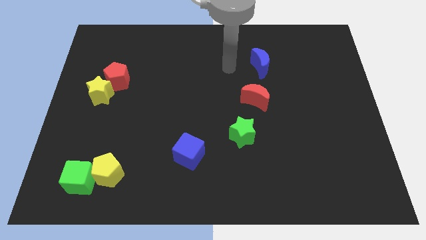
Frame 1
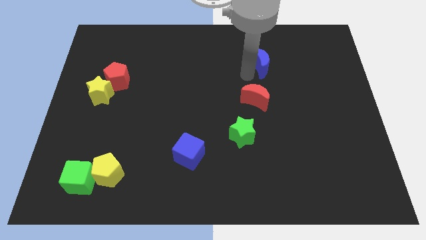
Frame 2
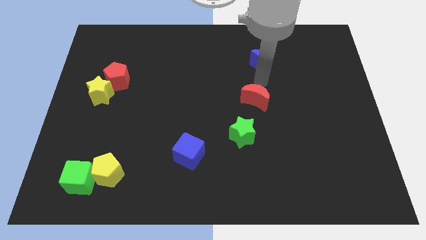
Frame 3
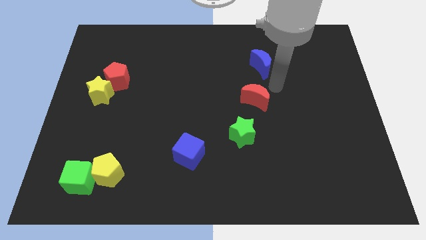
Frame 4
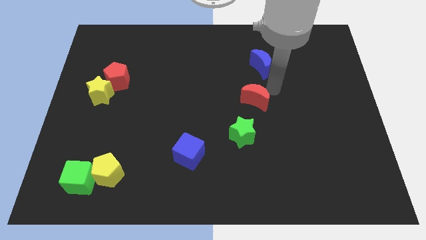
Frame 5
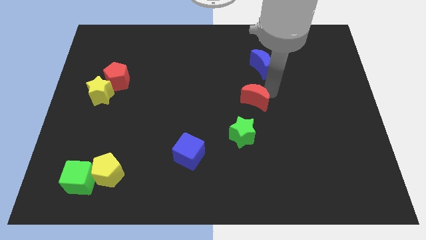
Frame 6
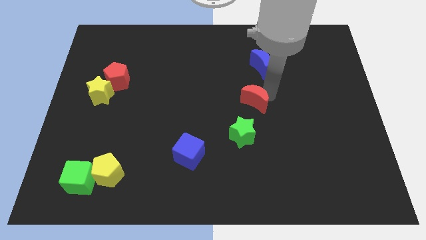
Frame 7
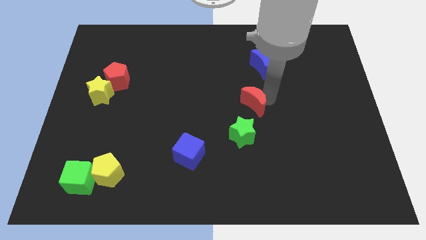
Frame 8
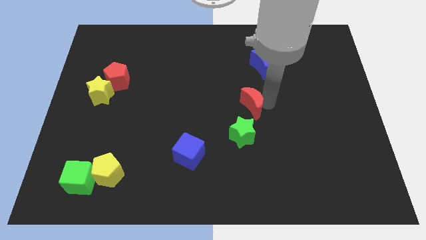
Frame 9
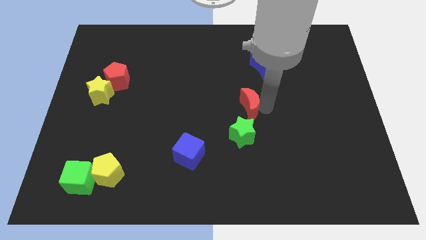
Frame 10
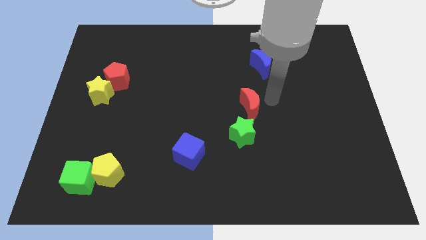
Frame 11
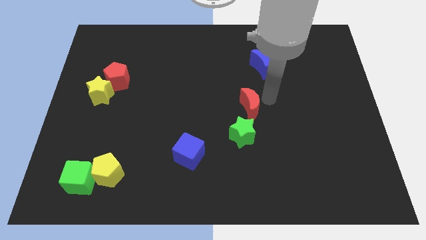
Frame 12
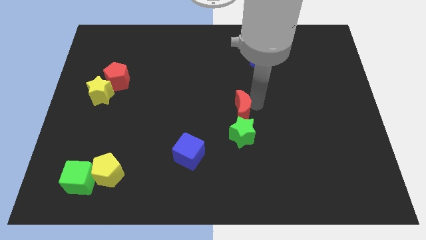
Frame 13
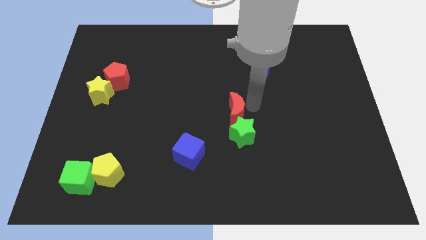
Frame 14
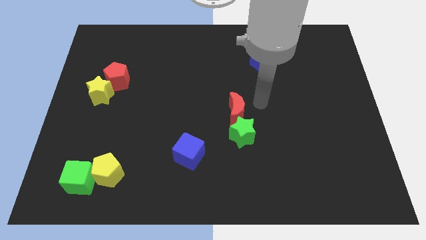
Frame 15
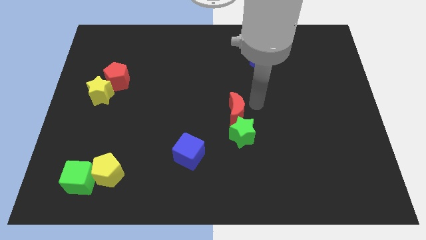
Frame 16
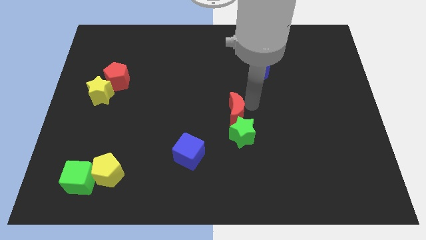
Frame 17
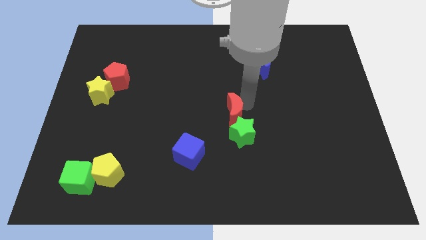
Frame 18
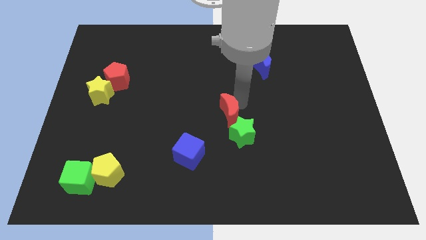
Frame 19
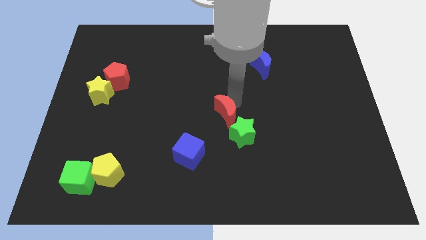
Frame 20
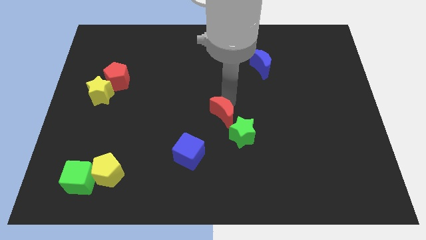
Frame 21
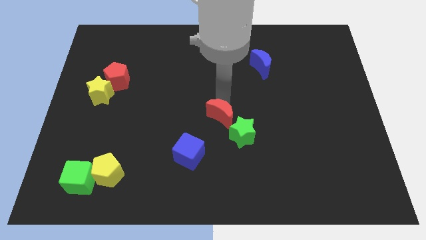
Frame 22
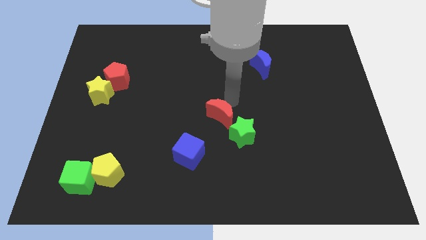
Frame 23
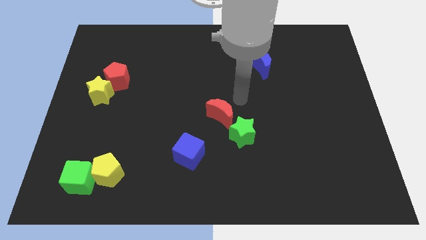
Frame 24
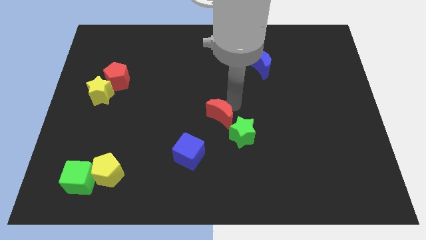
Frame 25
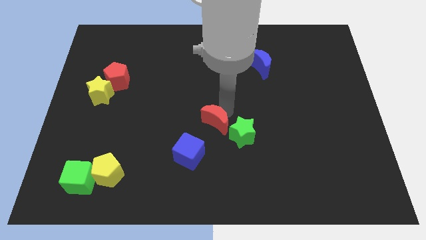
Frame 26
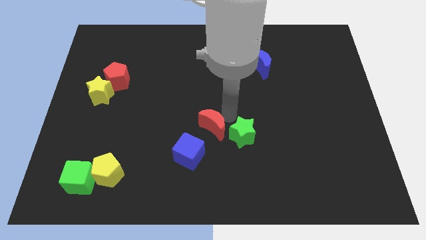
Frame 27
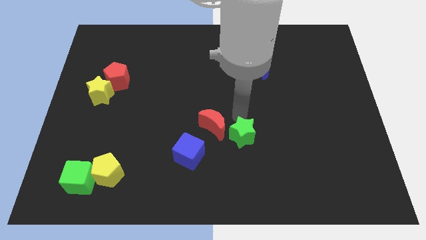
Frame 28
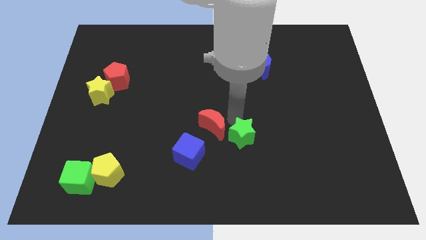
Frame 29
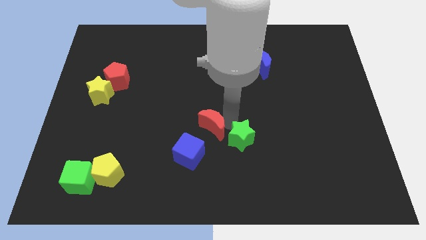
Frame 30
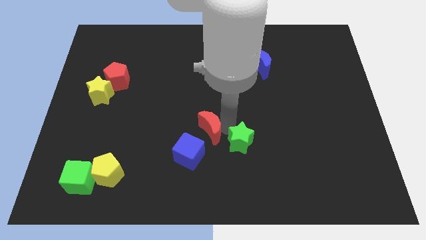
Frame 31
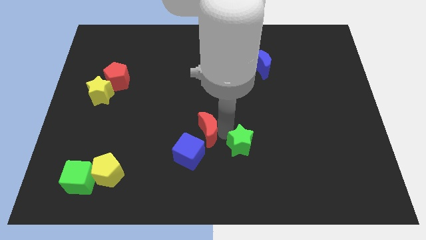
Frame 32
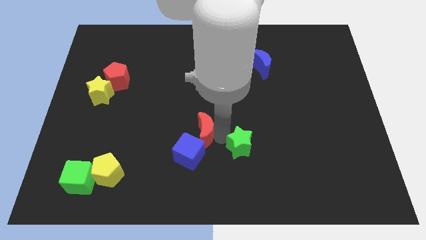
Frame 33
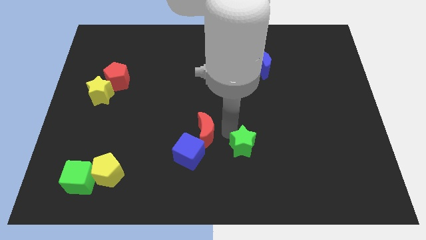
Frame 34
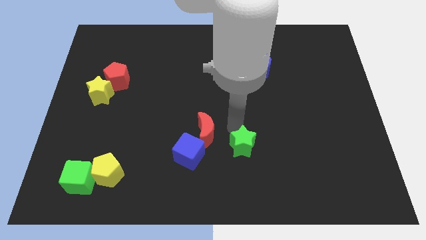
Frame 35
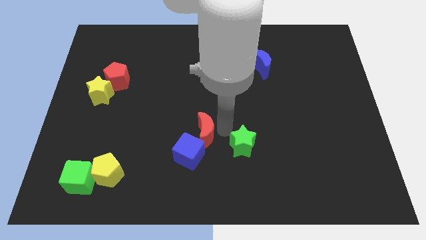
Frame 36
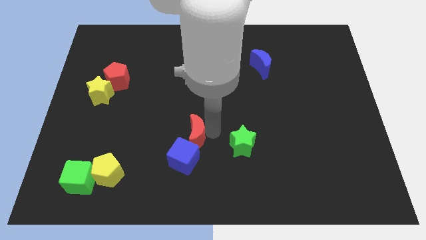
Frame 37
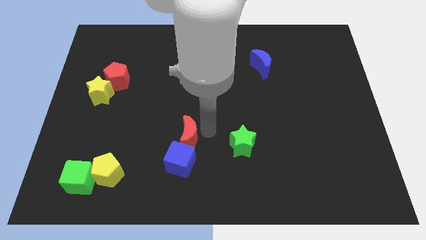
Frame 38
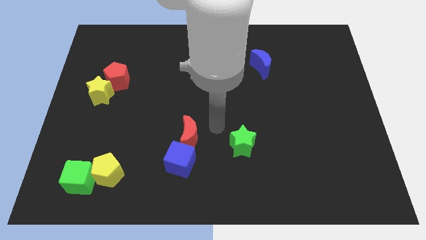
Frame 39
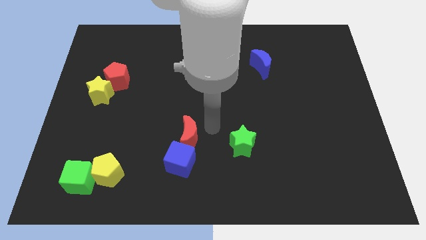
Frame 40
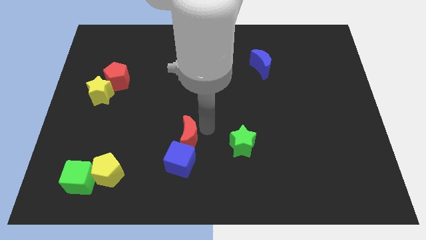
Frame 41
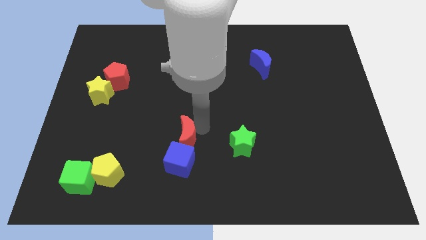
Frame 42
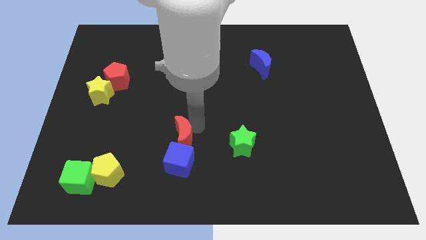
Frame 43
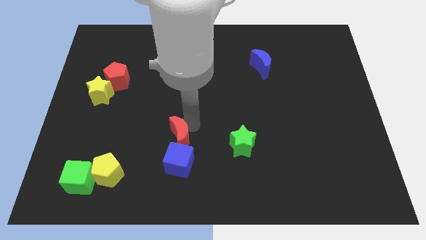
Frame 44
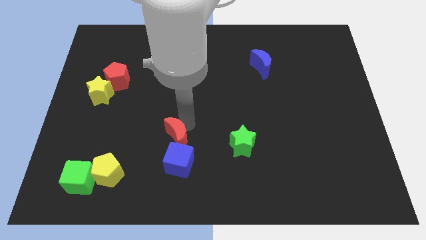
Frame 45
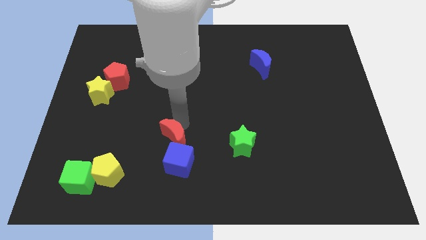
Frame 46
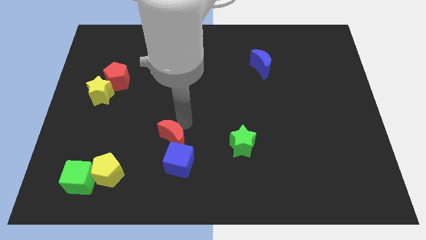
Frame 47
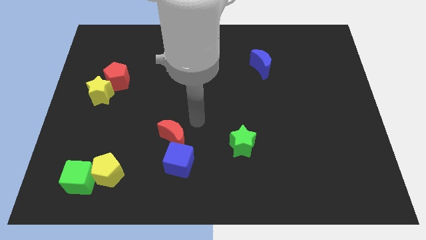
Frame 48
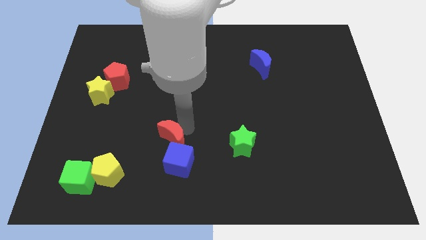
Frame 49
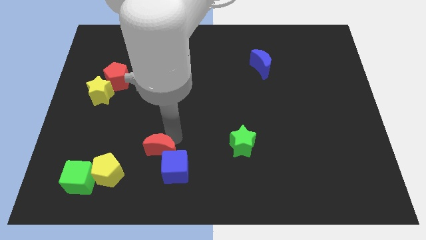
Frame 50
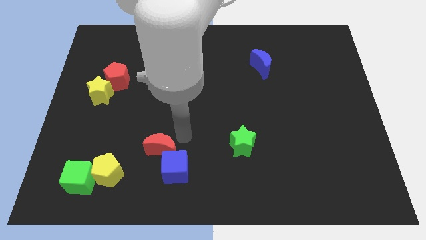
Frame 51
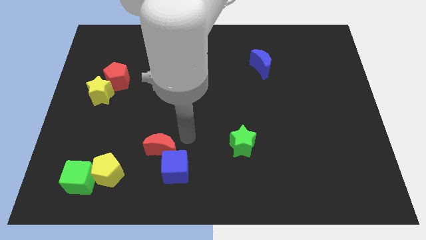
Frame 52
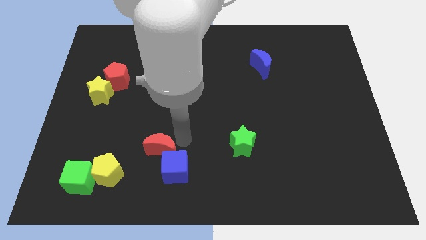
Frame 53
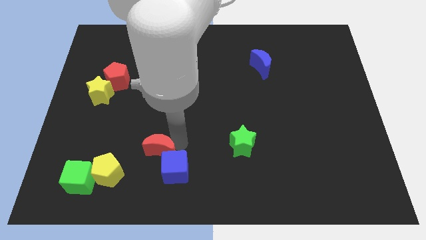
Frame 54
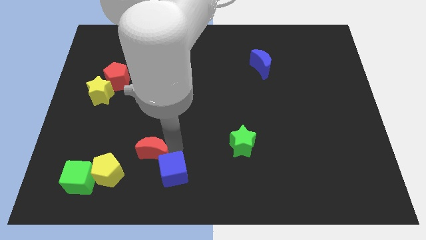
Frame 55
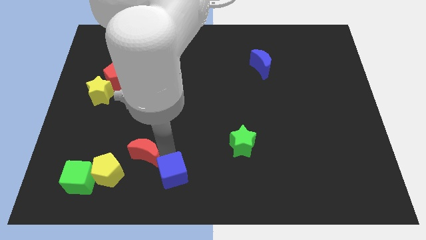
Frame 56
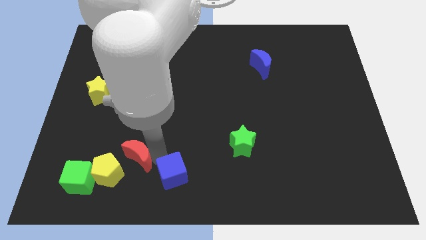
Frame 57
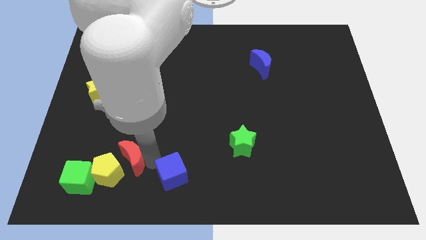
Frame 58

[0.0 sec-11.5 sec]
push the red moon close to the yellow pentagon

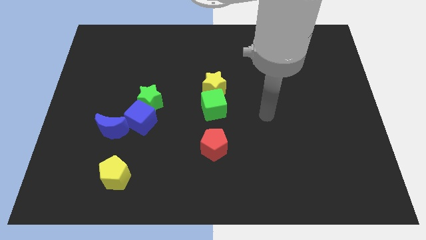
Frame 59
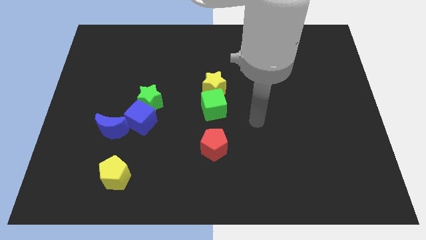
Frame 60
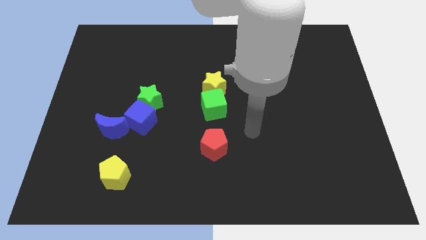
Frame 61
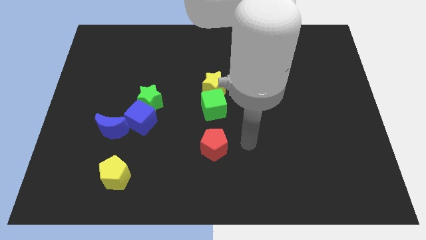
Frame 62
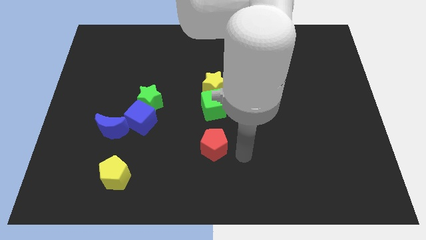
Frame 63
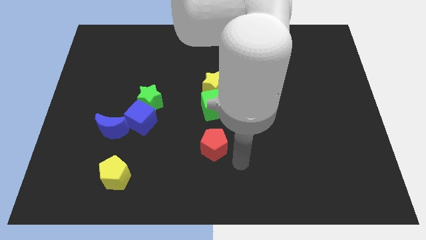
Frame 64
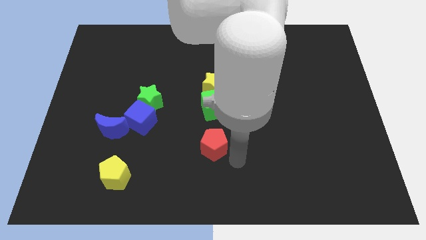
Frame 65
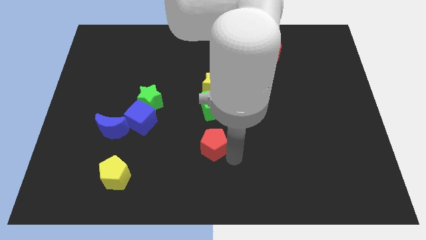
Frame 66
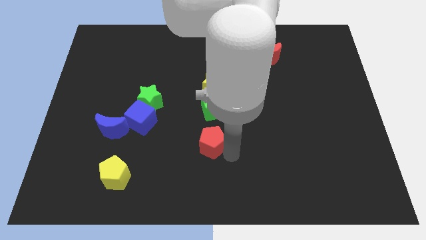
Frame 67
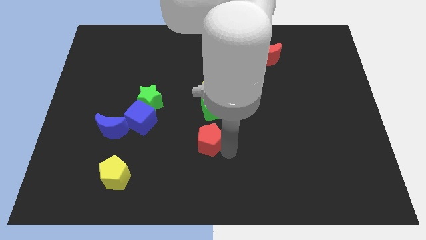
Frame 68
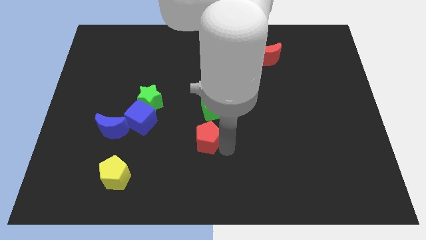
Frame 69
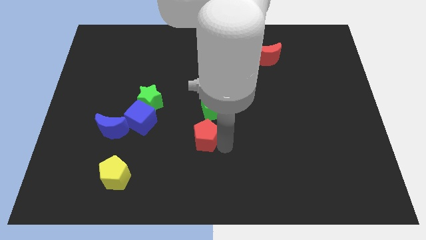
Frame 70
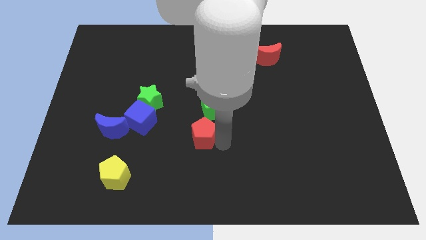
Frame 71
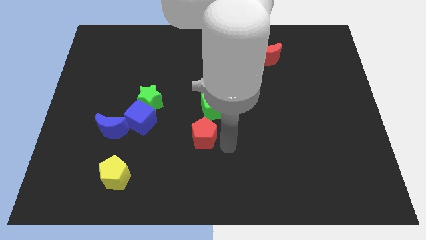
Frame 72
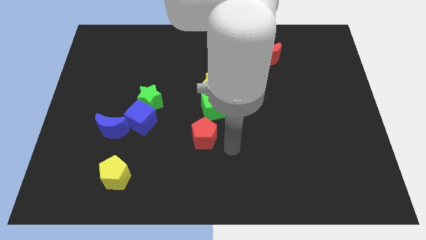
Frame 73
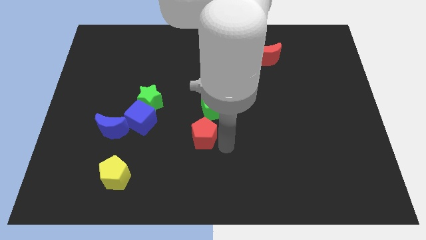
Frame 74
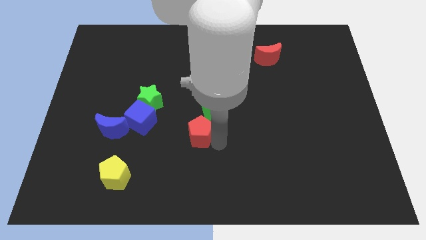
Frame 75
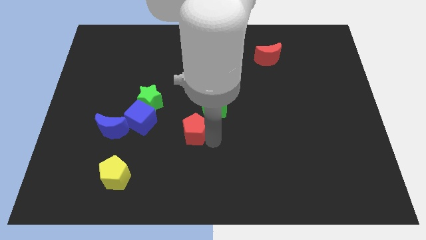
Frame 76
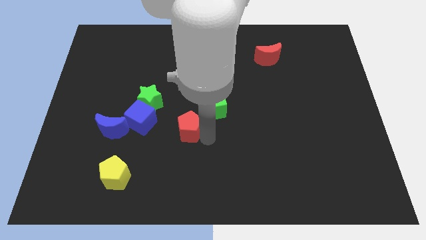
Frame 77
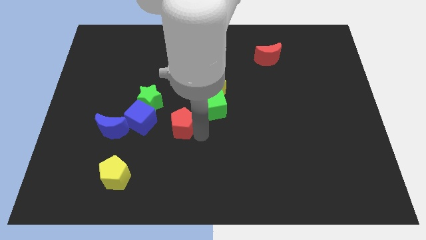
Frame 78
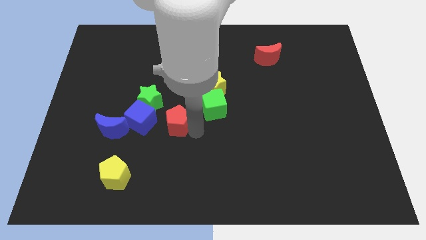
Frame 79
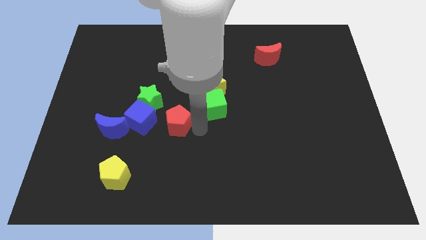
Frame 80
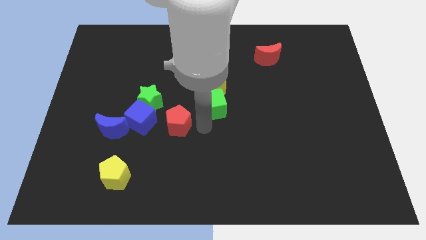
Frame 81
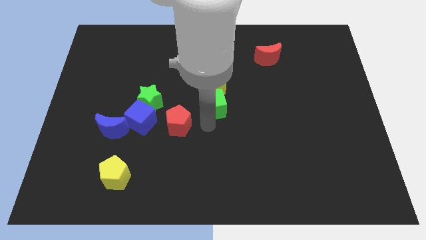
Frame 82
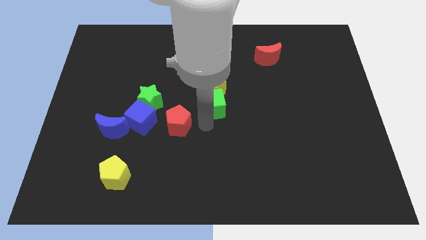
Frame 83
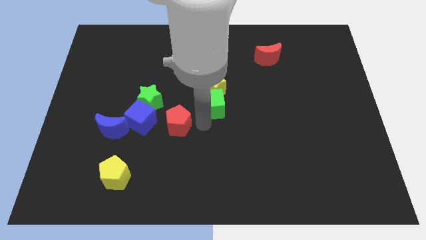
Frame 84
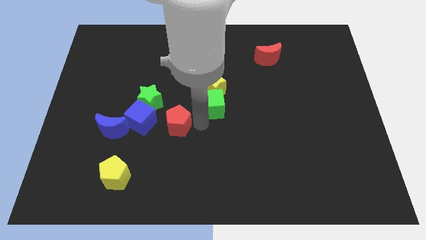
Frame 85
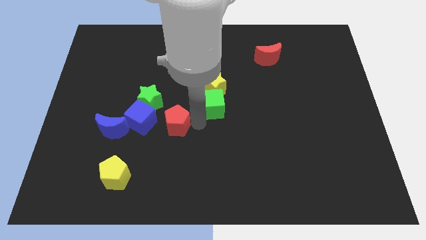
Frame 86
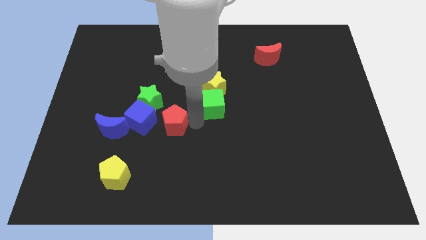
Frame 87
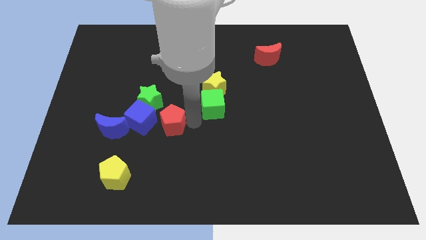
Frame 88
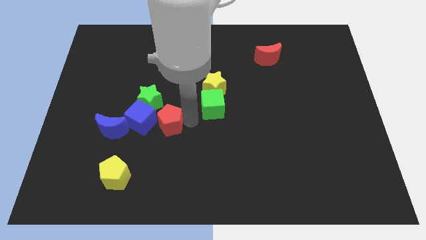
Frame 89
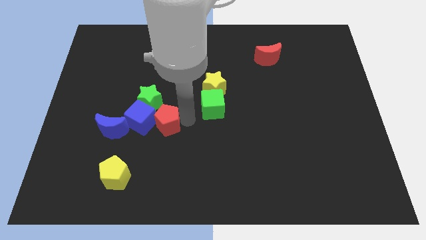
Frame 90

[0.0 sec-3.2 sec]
move the red pentagon next to the blue cube
